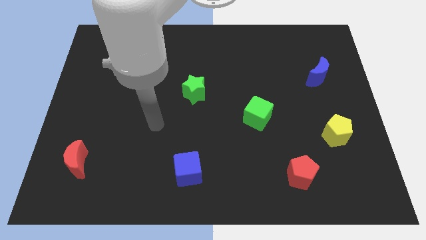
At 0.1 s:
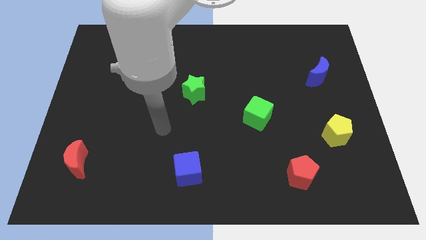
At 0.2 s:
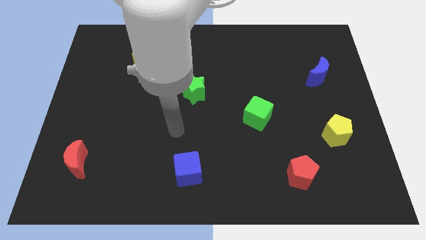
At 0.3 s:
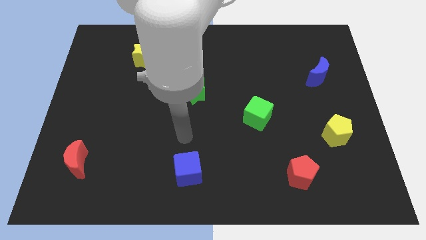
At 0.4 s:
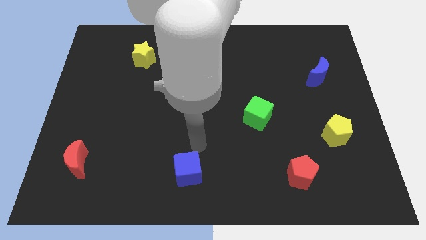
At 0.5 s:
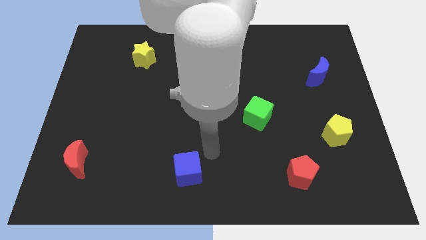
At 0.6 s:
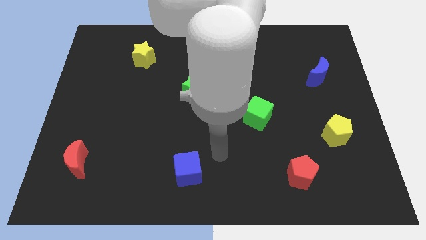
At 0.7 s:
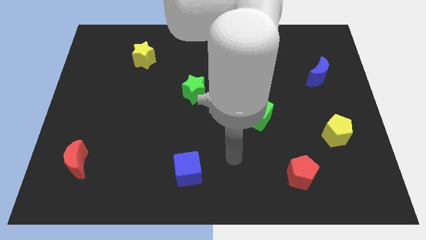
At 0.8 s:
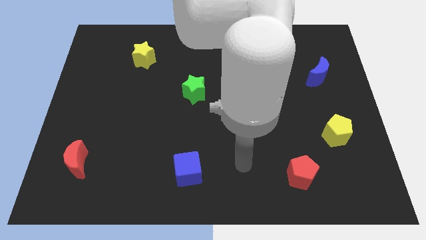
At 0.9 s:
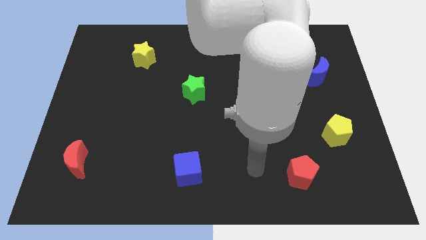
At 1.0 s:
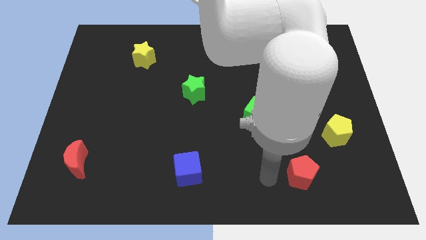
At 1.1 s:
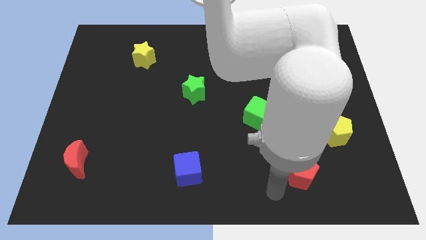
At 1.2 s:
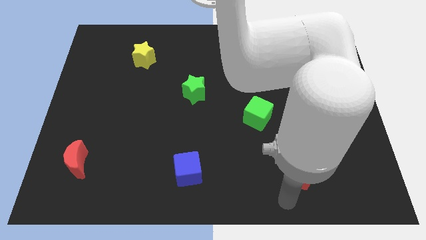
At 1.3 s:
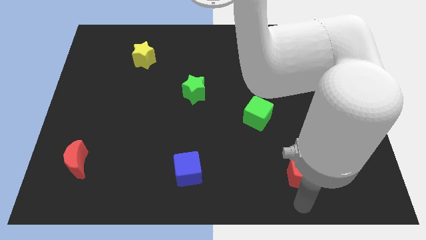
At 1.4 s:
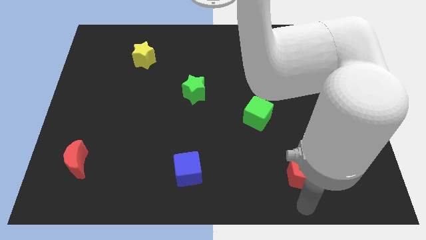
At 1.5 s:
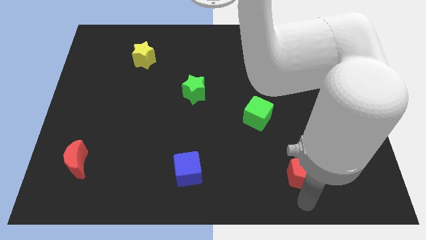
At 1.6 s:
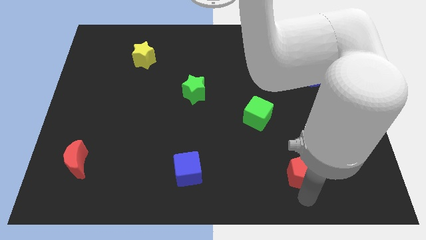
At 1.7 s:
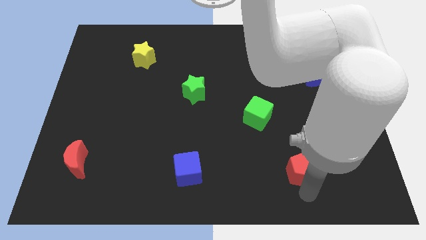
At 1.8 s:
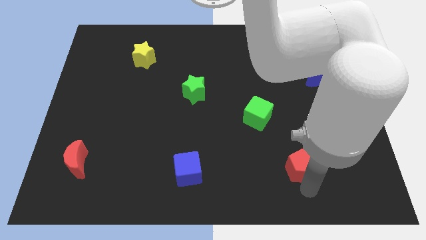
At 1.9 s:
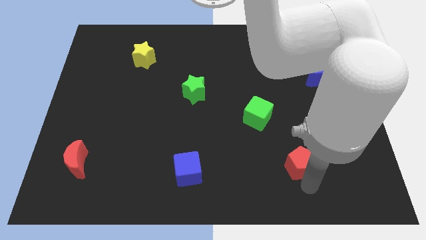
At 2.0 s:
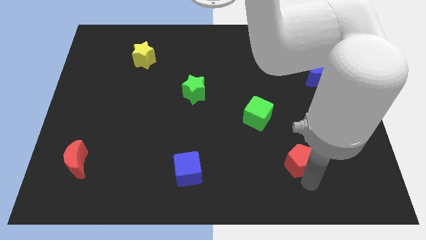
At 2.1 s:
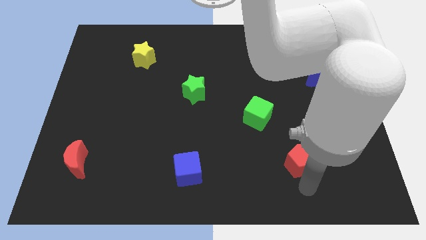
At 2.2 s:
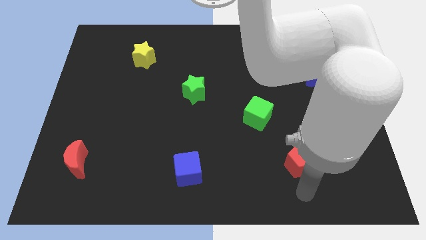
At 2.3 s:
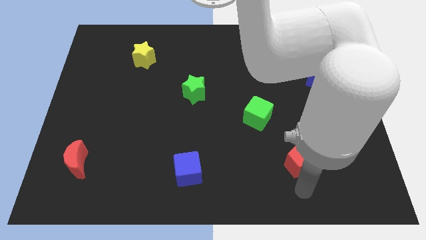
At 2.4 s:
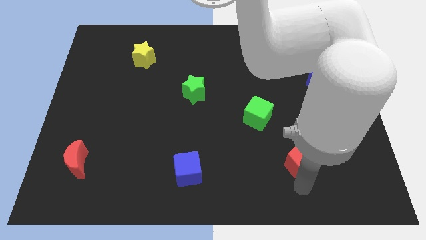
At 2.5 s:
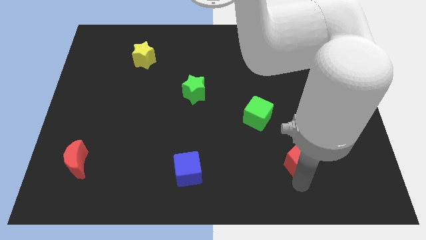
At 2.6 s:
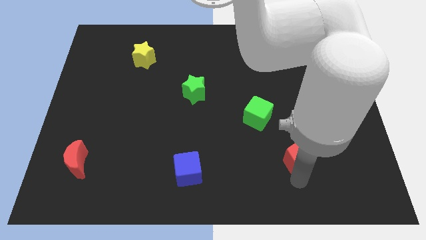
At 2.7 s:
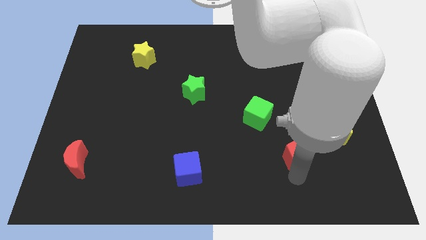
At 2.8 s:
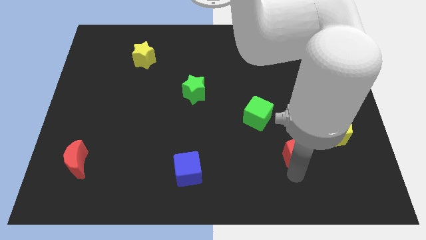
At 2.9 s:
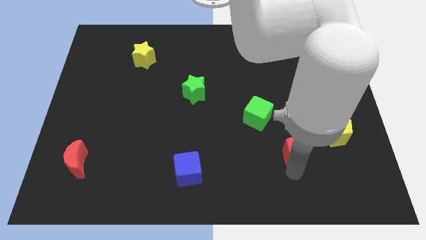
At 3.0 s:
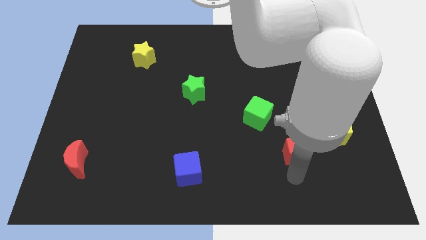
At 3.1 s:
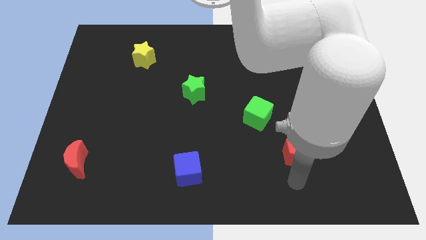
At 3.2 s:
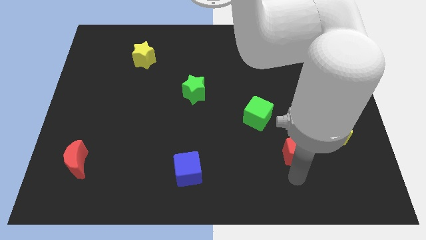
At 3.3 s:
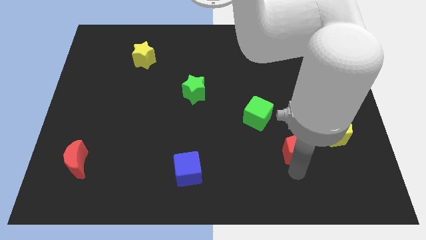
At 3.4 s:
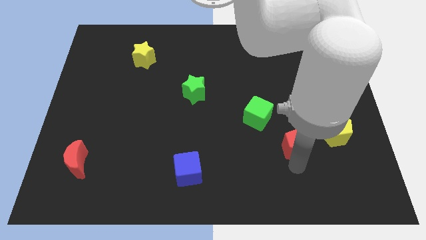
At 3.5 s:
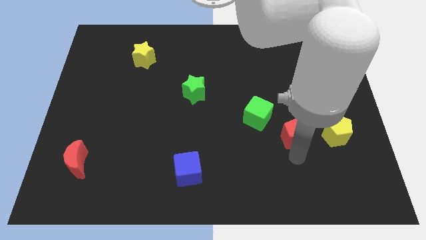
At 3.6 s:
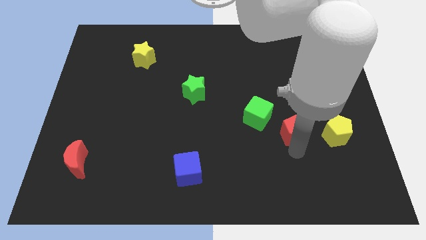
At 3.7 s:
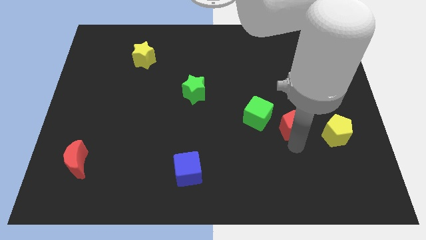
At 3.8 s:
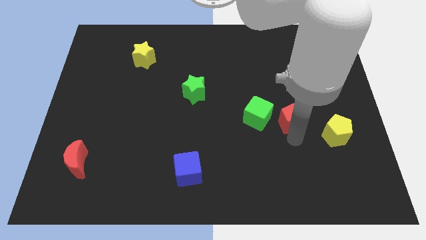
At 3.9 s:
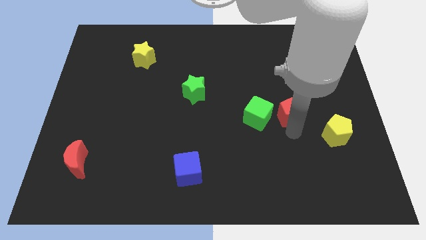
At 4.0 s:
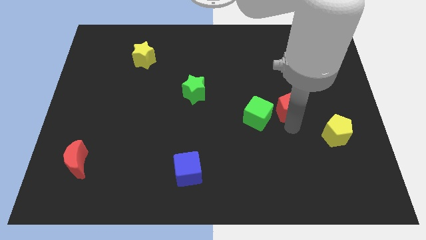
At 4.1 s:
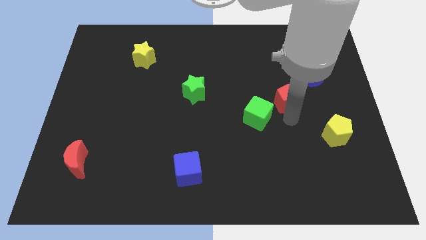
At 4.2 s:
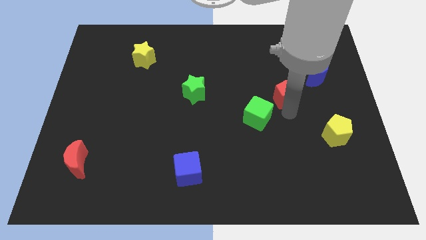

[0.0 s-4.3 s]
move the red pentagon up

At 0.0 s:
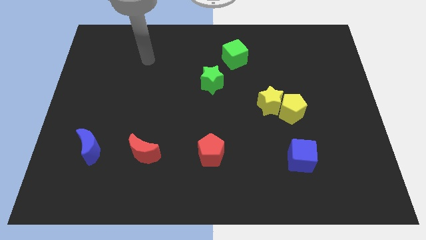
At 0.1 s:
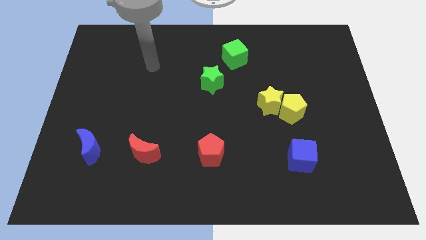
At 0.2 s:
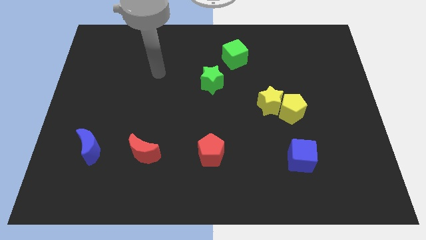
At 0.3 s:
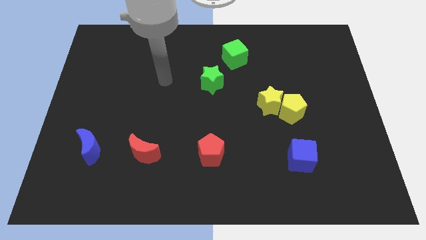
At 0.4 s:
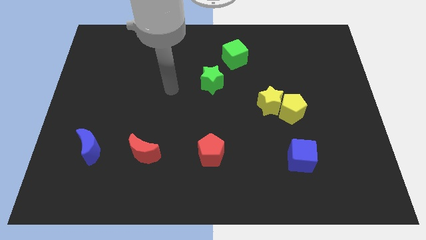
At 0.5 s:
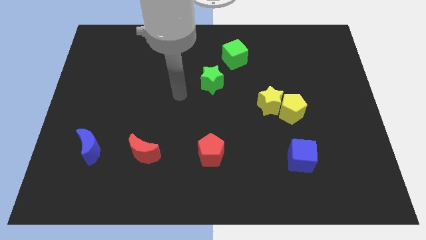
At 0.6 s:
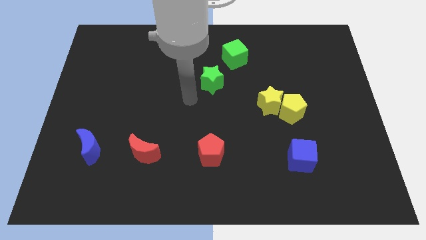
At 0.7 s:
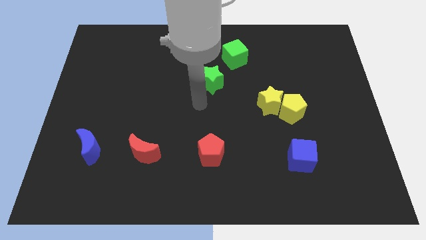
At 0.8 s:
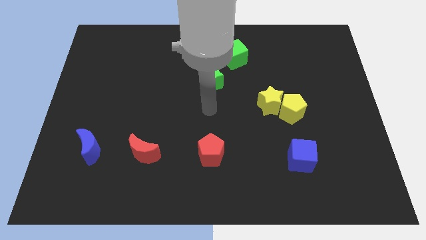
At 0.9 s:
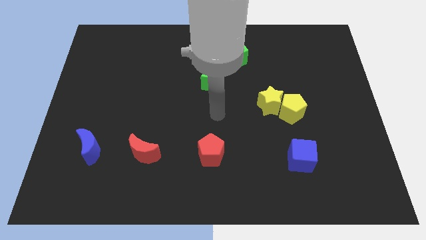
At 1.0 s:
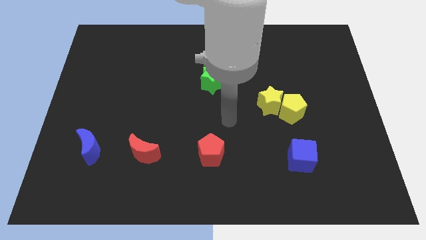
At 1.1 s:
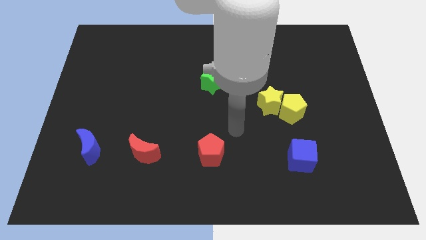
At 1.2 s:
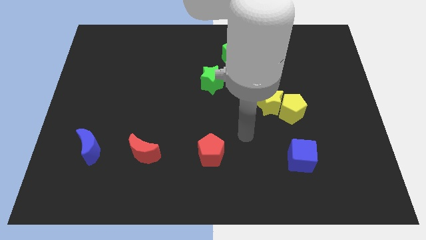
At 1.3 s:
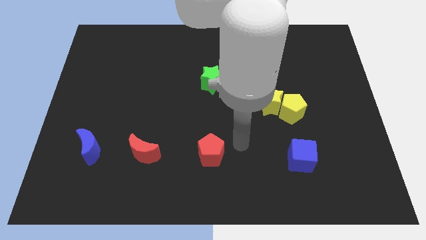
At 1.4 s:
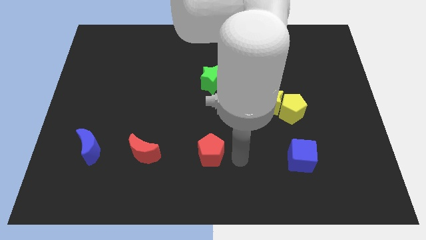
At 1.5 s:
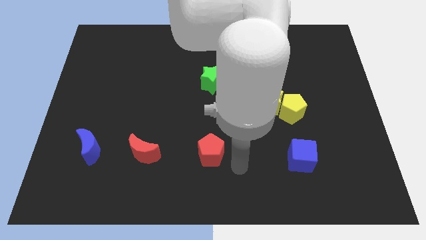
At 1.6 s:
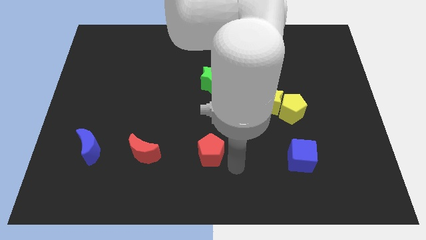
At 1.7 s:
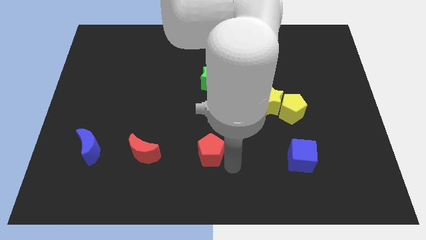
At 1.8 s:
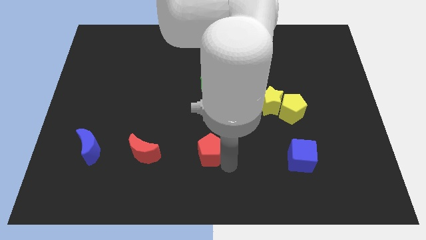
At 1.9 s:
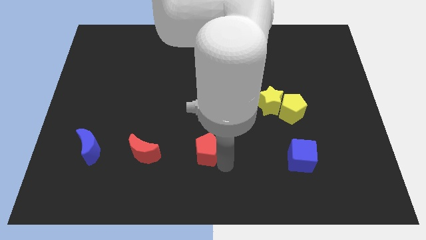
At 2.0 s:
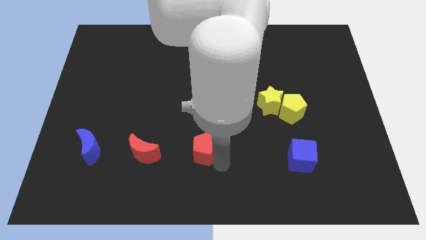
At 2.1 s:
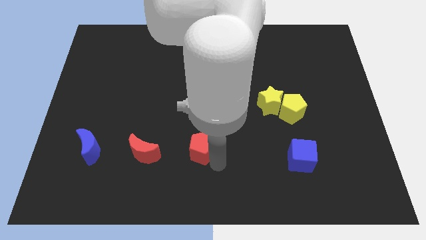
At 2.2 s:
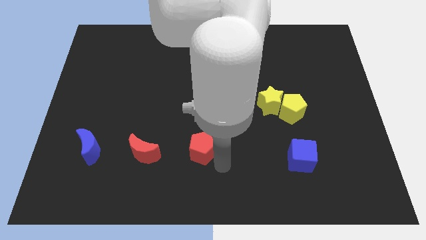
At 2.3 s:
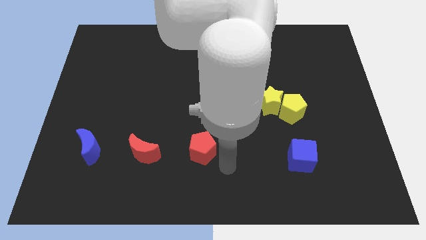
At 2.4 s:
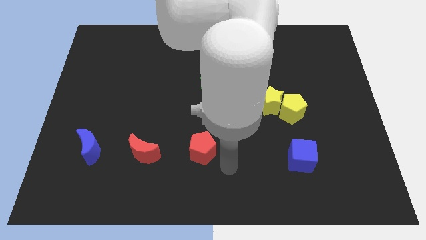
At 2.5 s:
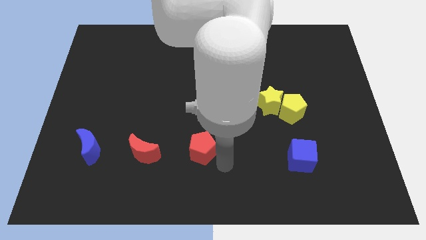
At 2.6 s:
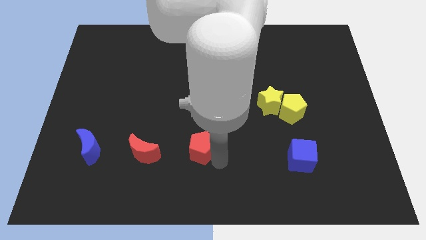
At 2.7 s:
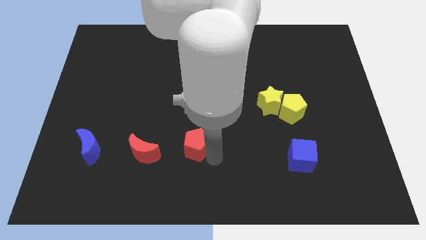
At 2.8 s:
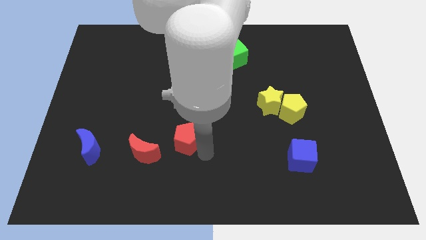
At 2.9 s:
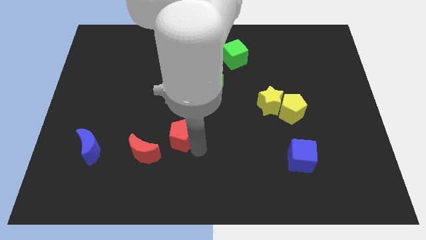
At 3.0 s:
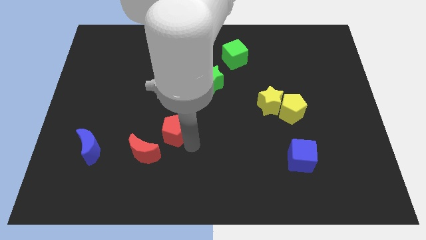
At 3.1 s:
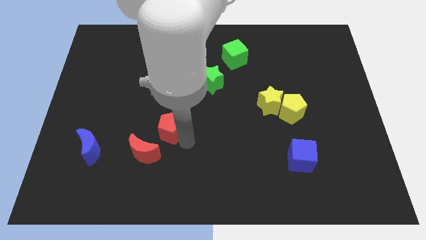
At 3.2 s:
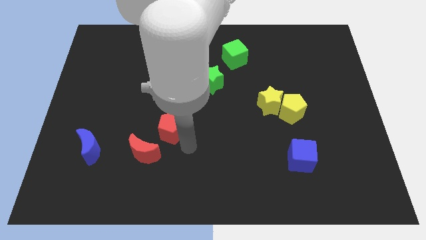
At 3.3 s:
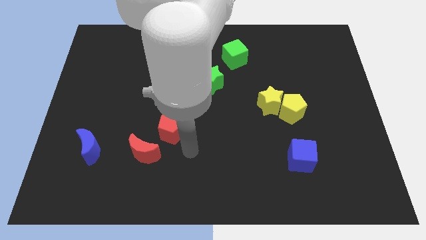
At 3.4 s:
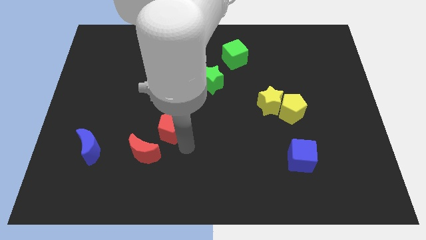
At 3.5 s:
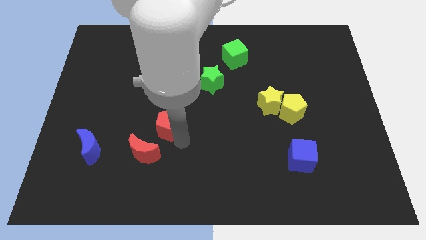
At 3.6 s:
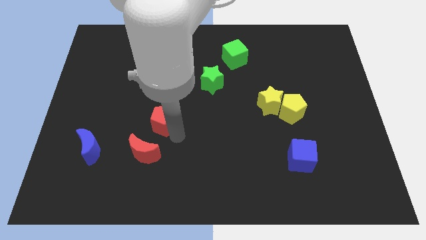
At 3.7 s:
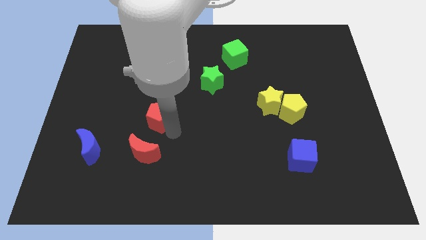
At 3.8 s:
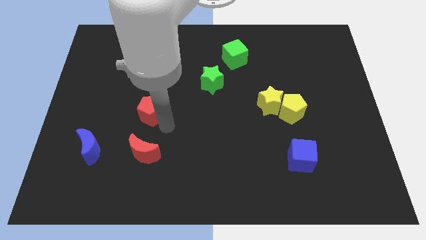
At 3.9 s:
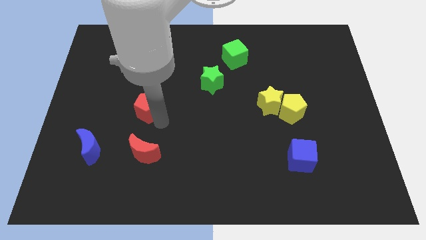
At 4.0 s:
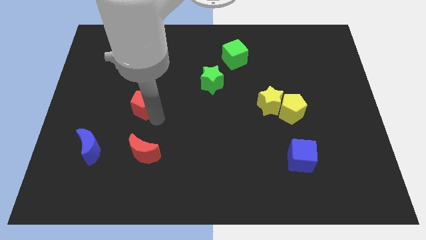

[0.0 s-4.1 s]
push the red pentagon diagonally upwards and left
